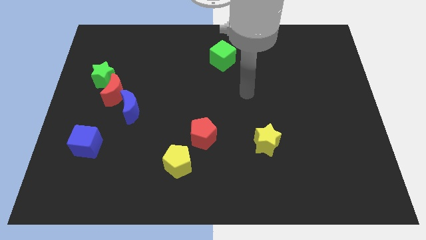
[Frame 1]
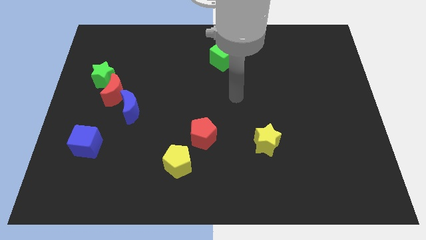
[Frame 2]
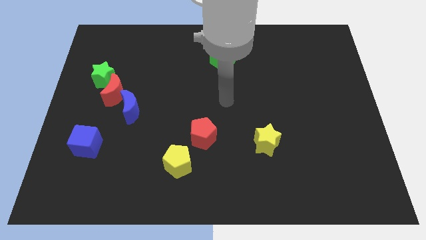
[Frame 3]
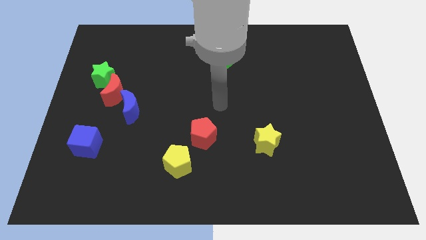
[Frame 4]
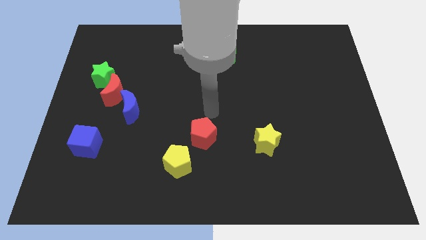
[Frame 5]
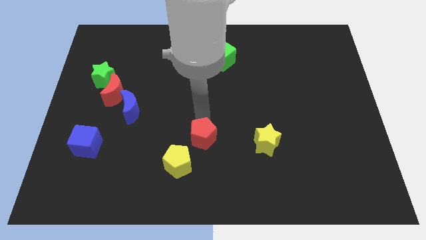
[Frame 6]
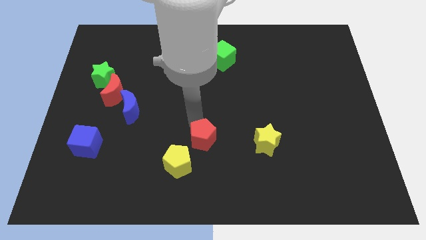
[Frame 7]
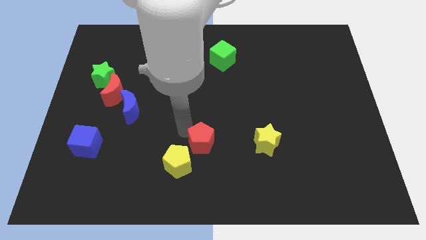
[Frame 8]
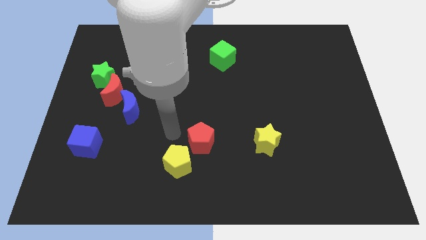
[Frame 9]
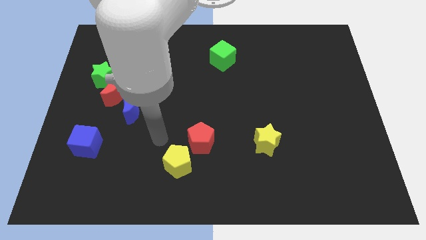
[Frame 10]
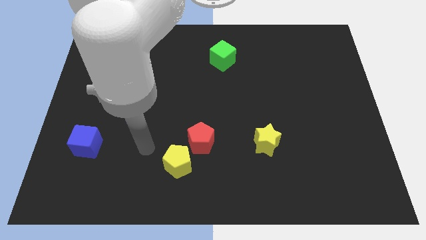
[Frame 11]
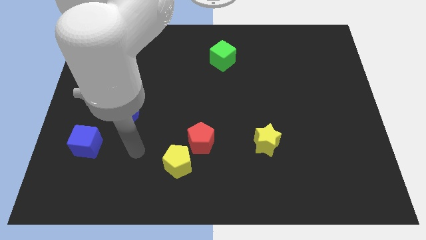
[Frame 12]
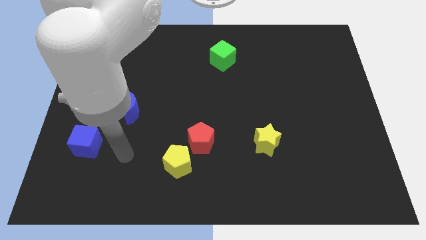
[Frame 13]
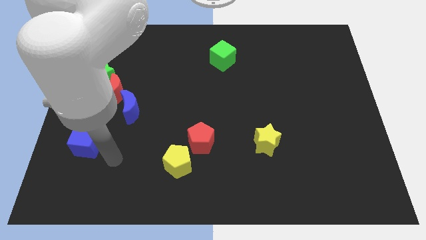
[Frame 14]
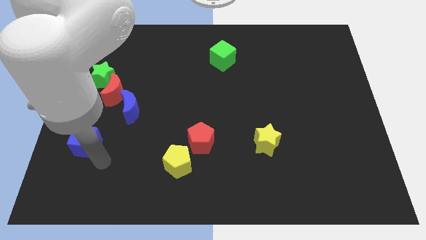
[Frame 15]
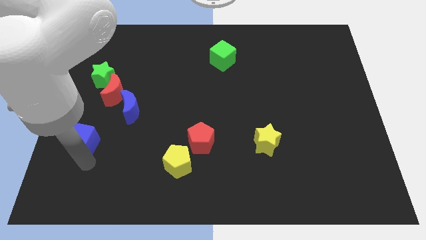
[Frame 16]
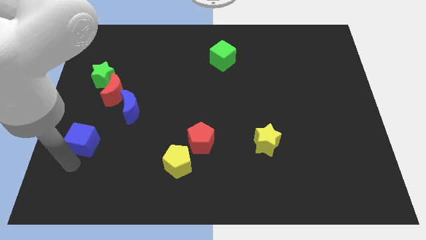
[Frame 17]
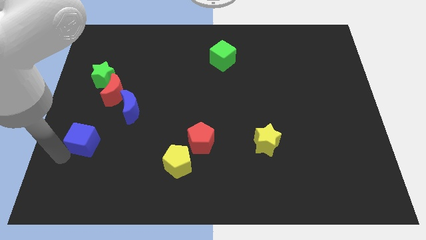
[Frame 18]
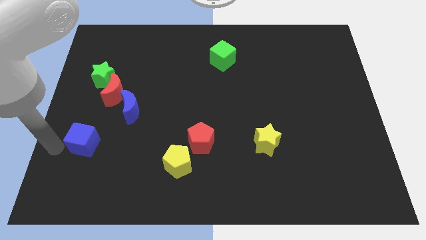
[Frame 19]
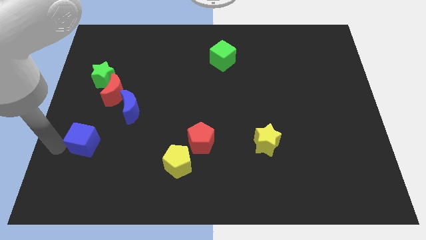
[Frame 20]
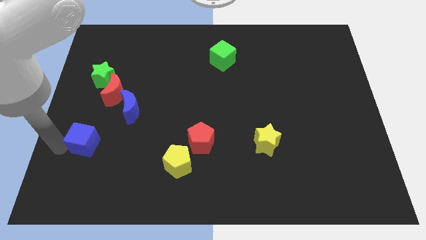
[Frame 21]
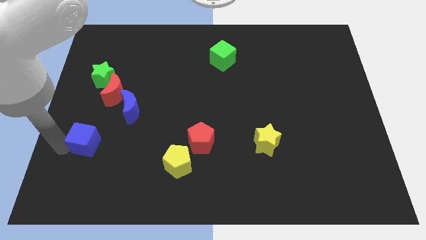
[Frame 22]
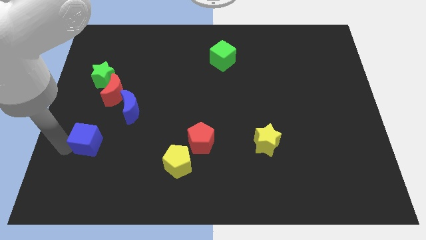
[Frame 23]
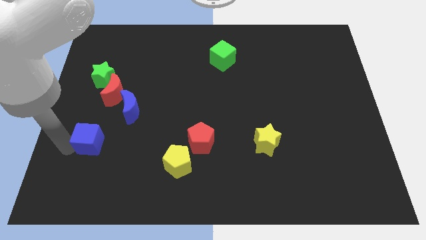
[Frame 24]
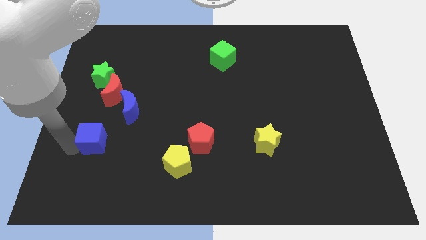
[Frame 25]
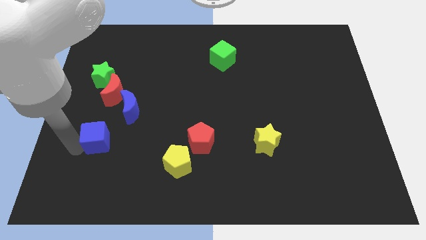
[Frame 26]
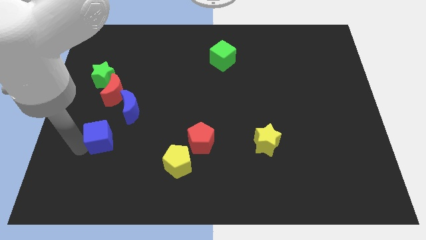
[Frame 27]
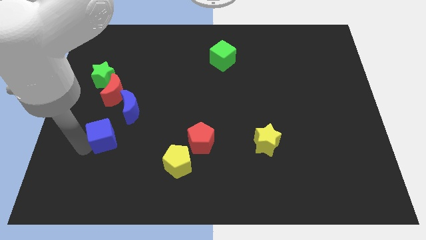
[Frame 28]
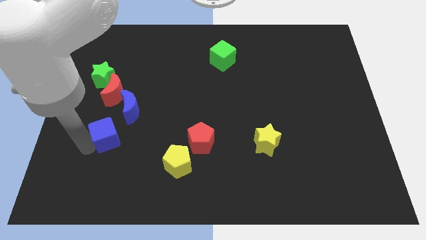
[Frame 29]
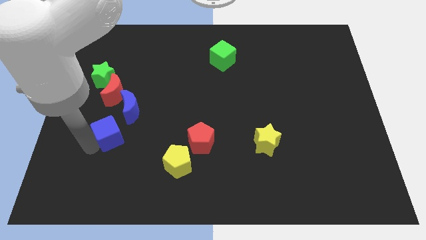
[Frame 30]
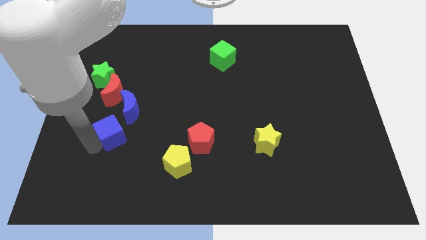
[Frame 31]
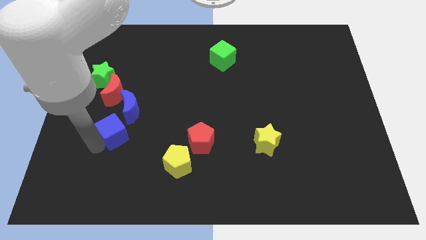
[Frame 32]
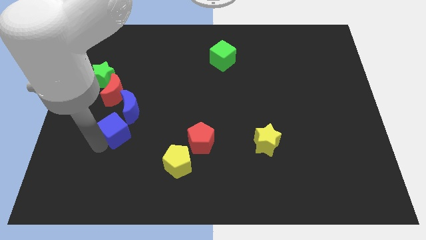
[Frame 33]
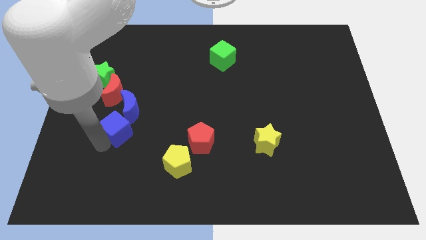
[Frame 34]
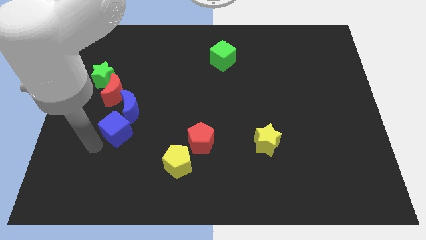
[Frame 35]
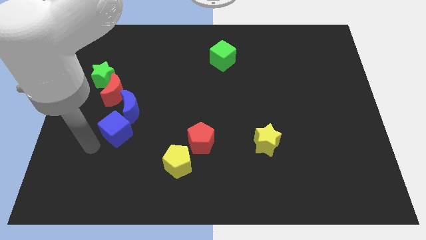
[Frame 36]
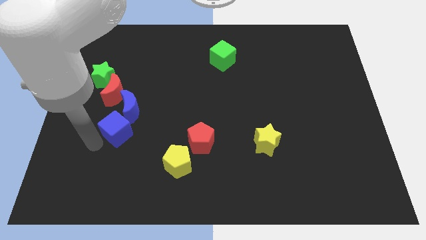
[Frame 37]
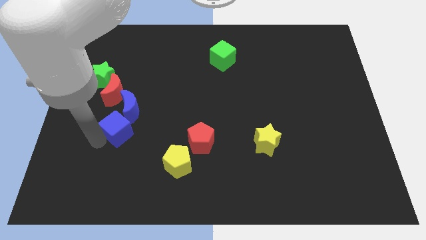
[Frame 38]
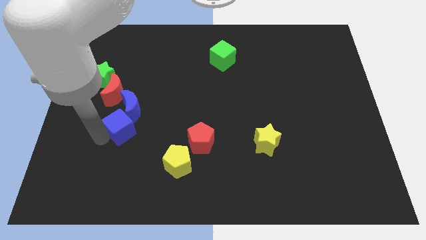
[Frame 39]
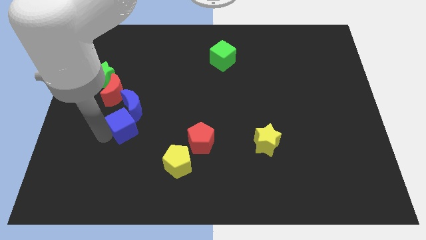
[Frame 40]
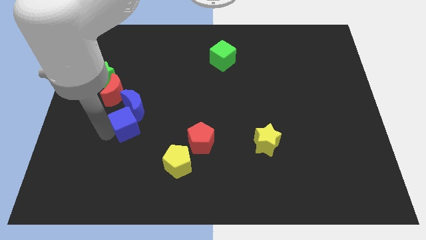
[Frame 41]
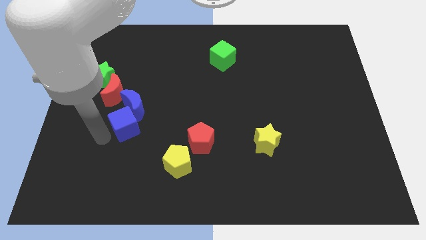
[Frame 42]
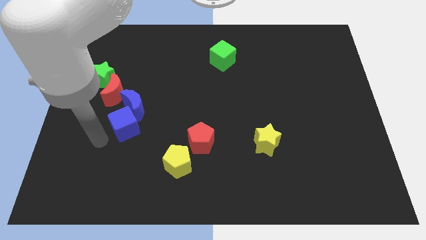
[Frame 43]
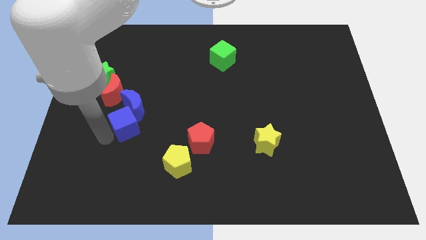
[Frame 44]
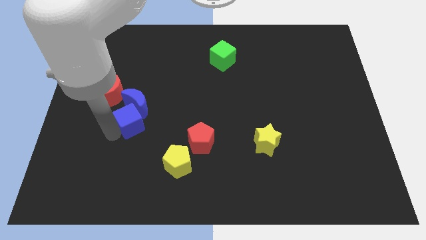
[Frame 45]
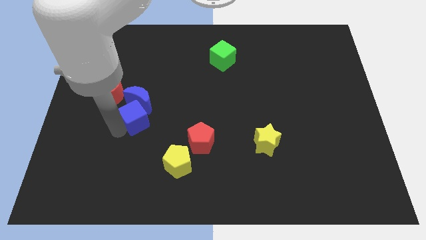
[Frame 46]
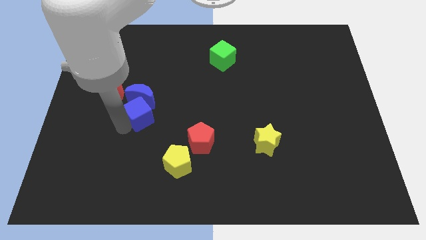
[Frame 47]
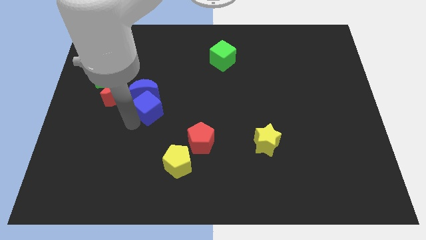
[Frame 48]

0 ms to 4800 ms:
push the blue cube right of the red moon

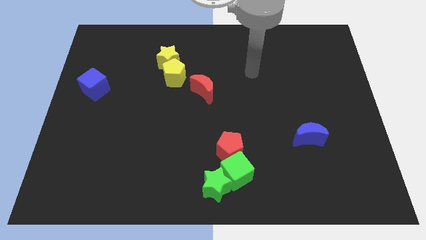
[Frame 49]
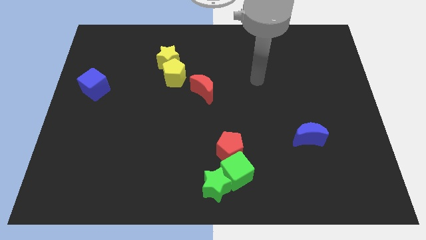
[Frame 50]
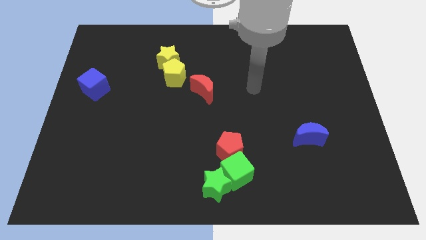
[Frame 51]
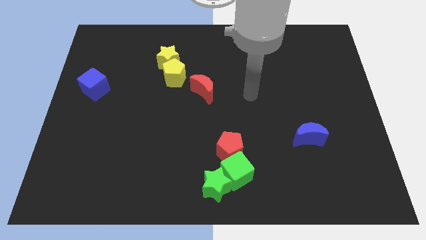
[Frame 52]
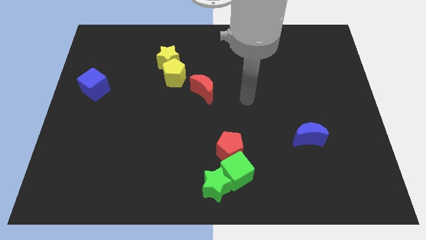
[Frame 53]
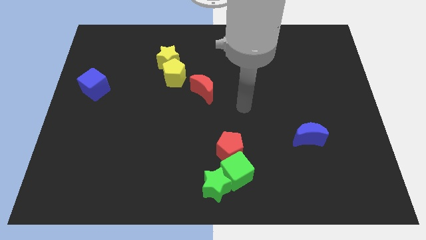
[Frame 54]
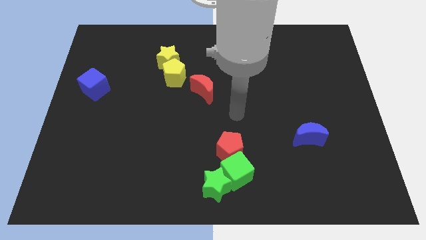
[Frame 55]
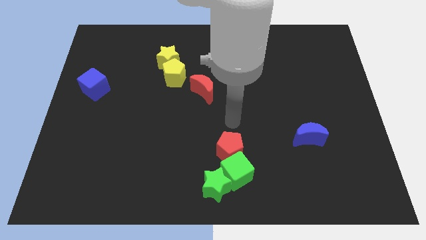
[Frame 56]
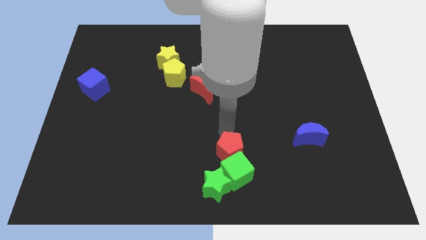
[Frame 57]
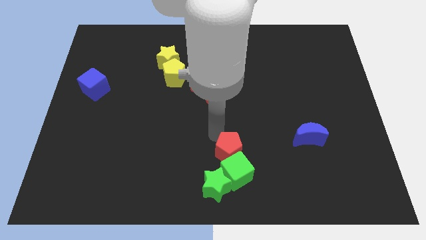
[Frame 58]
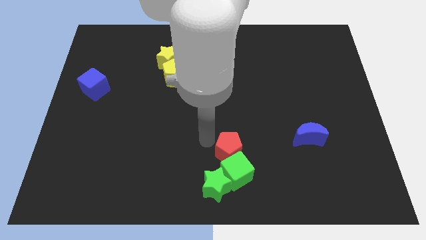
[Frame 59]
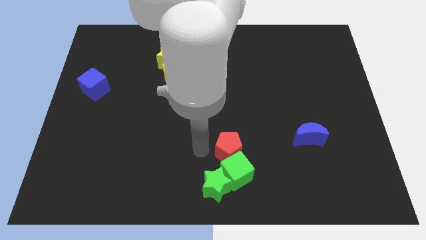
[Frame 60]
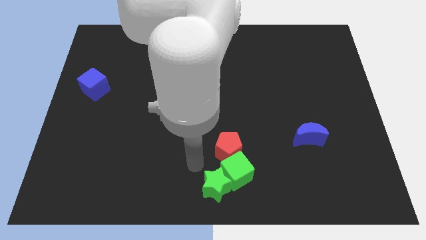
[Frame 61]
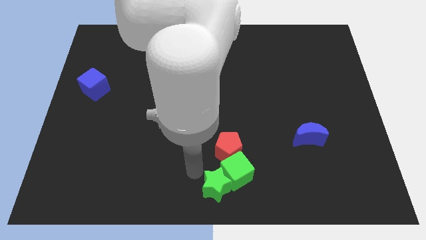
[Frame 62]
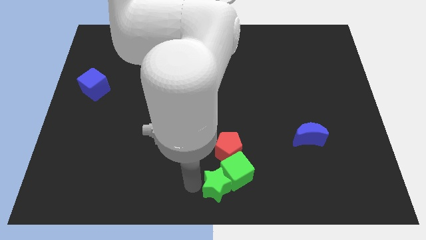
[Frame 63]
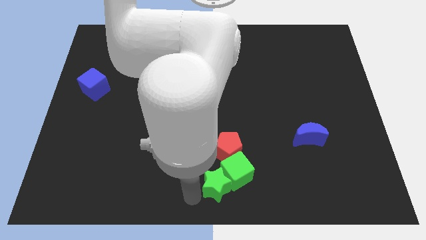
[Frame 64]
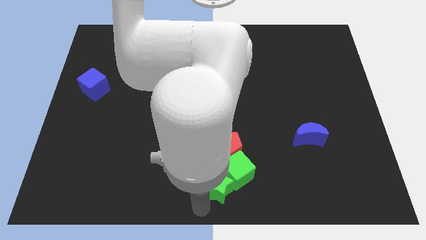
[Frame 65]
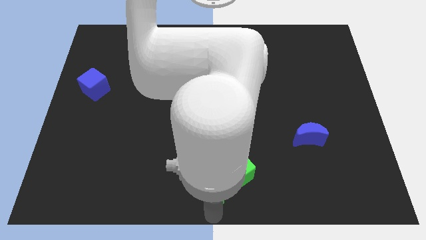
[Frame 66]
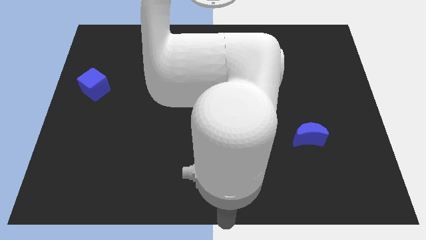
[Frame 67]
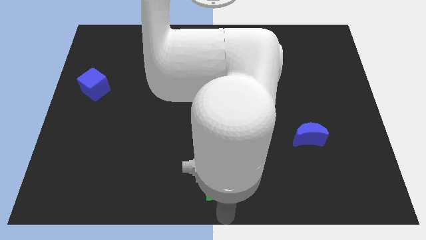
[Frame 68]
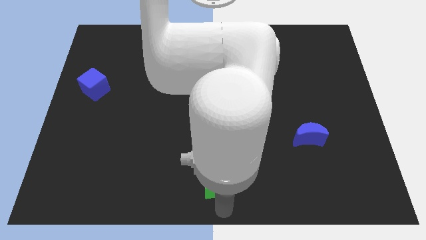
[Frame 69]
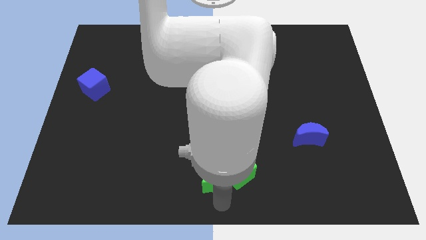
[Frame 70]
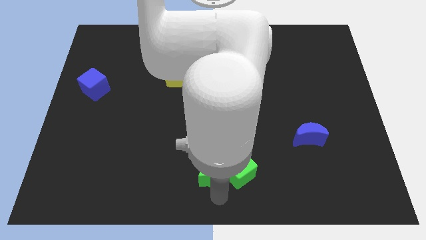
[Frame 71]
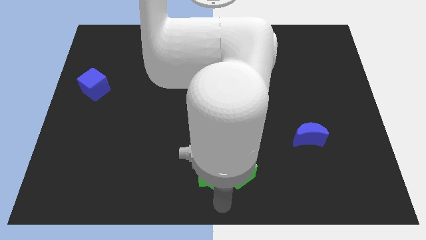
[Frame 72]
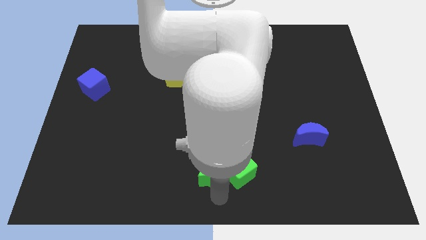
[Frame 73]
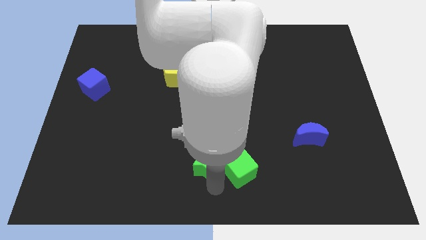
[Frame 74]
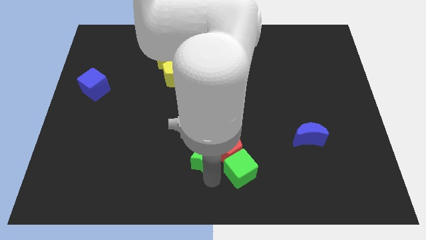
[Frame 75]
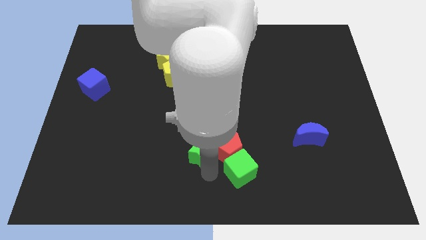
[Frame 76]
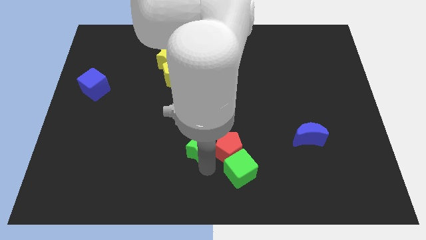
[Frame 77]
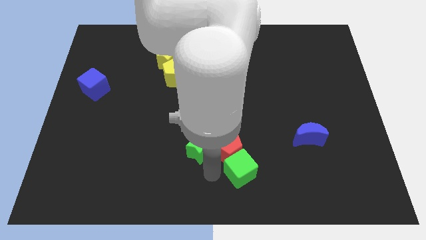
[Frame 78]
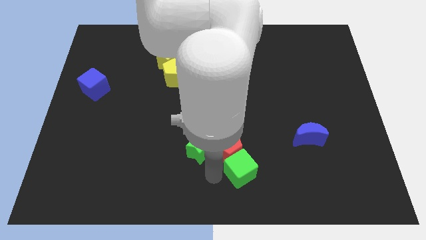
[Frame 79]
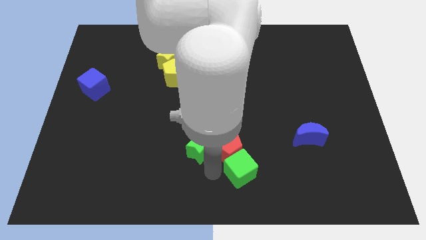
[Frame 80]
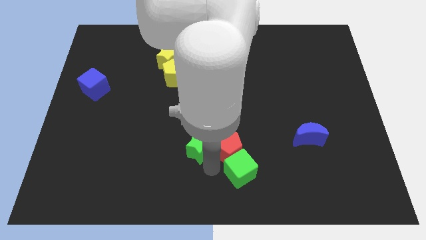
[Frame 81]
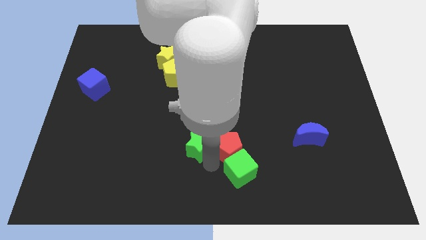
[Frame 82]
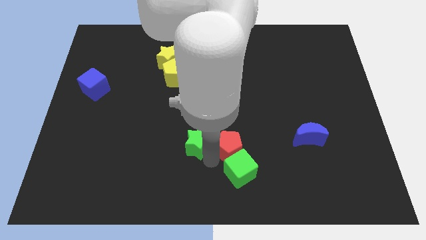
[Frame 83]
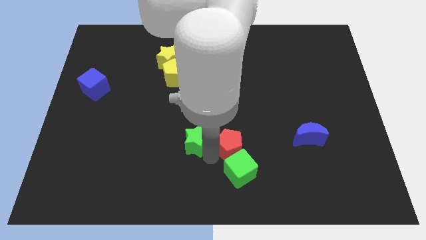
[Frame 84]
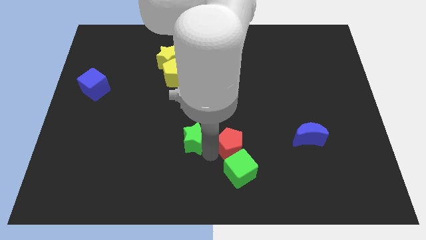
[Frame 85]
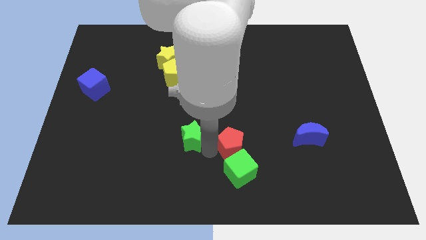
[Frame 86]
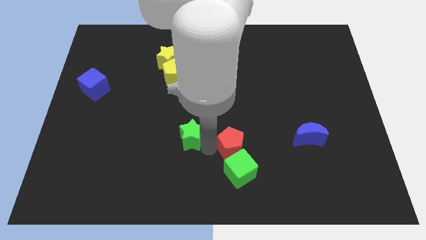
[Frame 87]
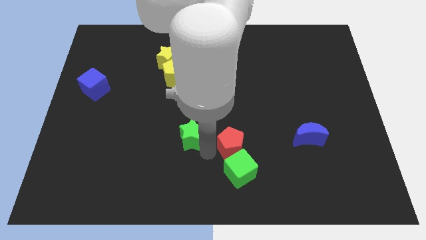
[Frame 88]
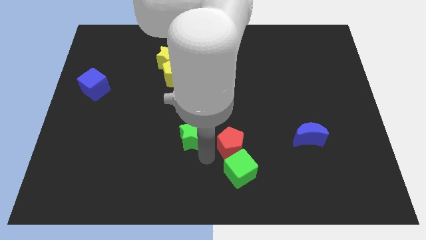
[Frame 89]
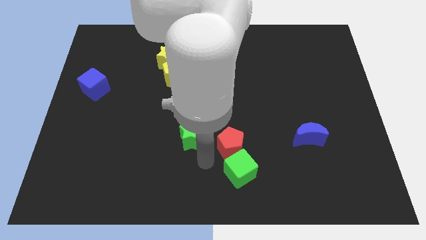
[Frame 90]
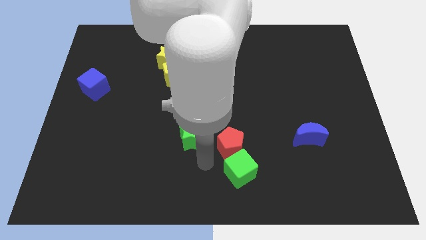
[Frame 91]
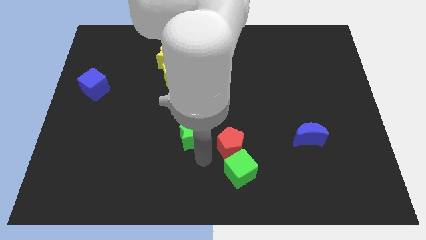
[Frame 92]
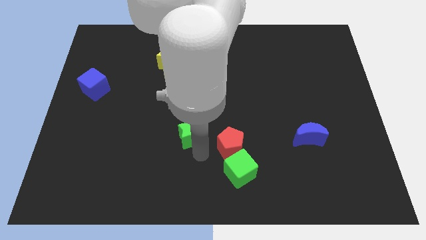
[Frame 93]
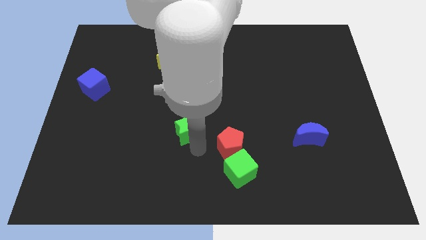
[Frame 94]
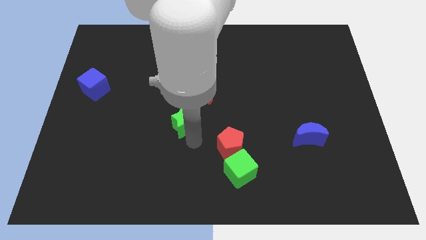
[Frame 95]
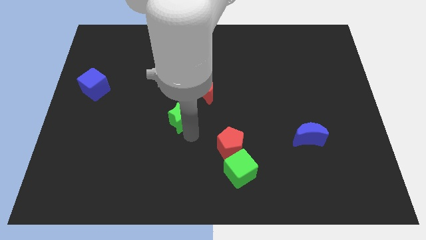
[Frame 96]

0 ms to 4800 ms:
push the green star below the yellow pentagon
